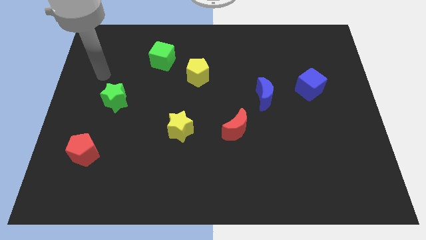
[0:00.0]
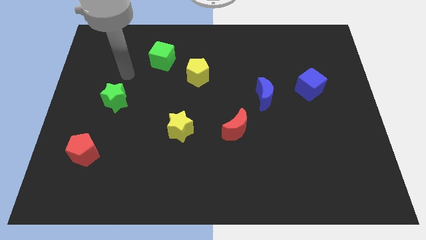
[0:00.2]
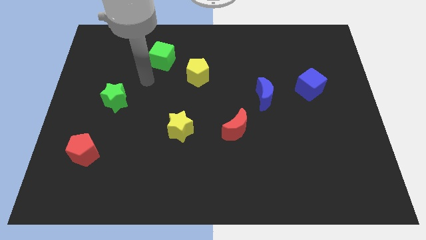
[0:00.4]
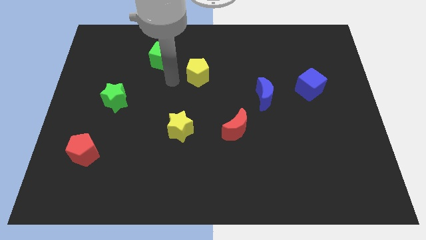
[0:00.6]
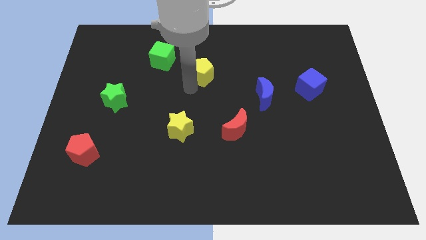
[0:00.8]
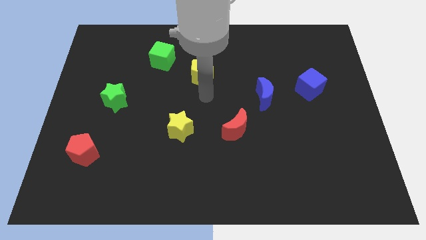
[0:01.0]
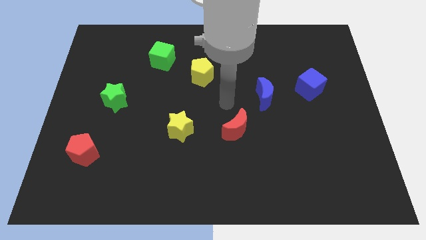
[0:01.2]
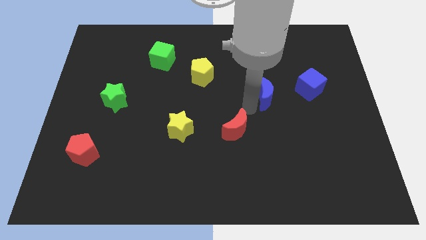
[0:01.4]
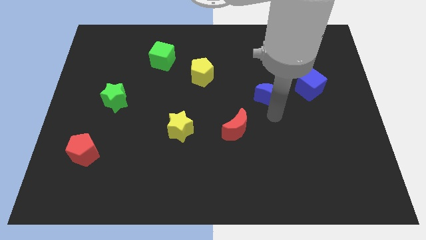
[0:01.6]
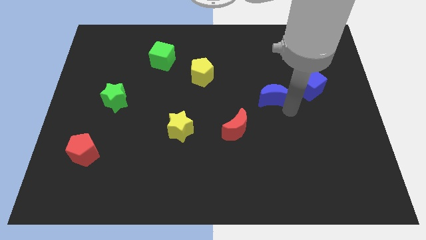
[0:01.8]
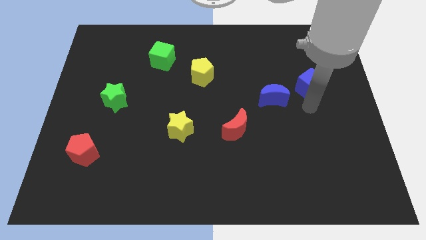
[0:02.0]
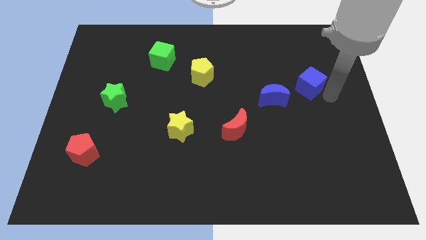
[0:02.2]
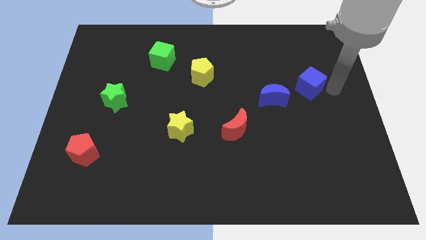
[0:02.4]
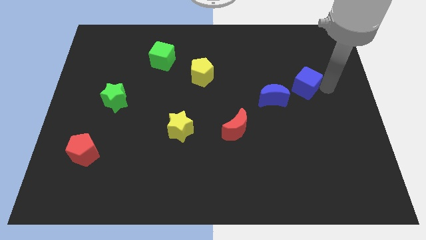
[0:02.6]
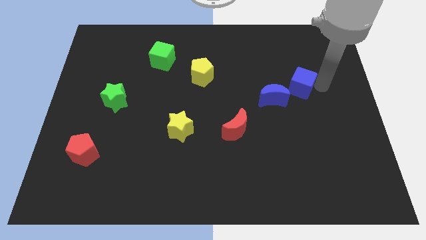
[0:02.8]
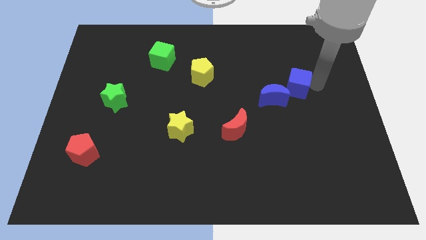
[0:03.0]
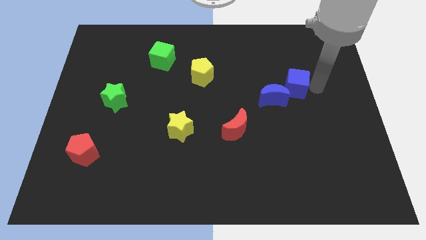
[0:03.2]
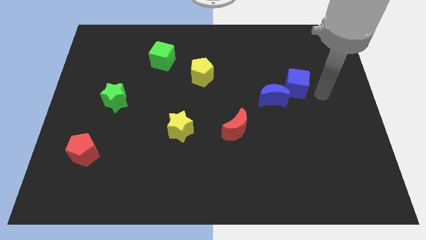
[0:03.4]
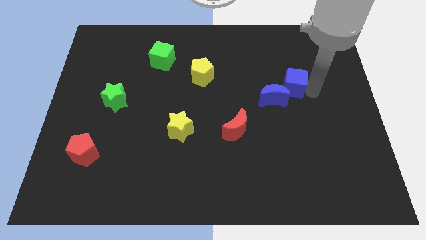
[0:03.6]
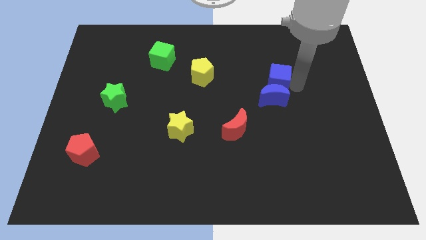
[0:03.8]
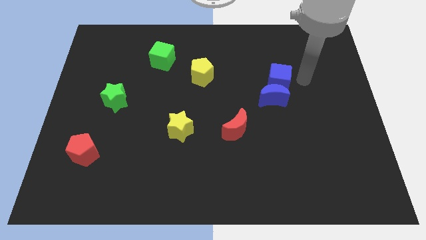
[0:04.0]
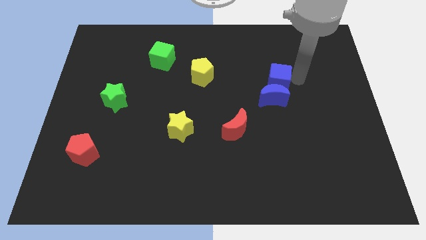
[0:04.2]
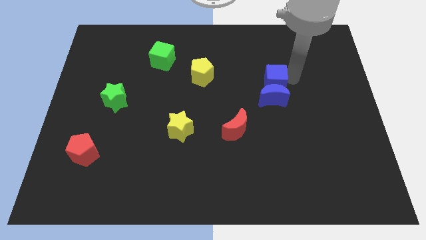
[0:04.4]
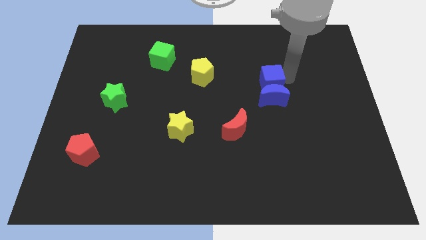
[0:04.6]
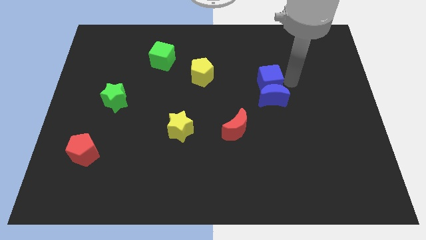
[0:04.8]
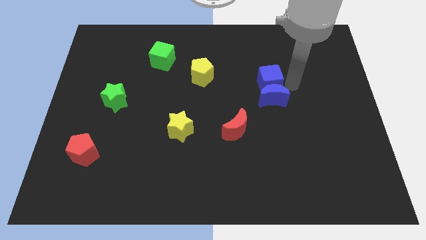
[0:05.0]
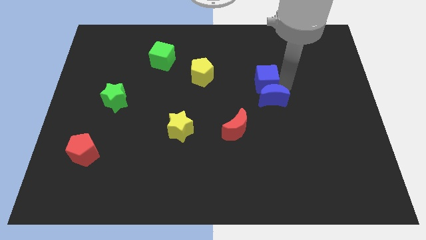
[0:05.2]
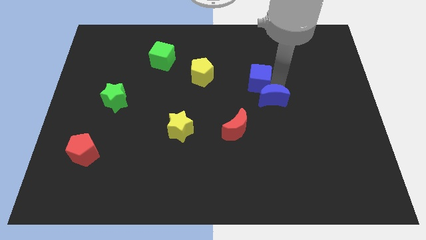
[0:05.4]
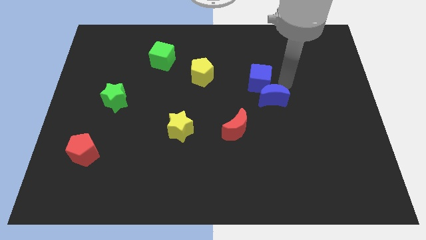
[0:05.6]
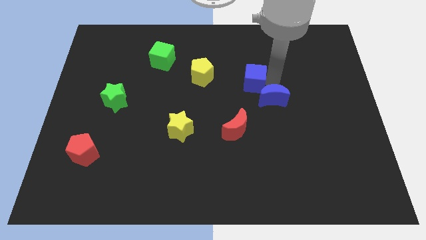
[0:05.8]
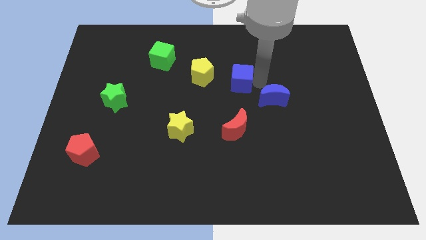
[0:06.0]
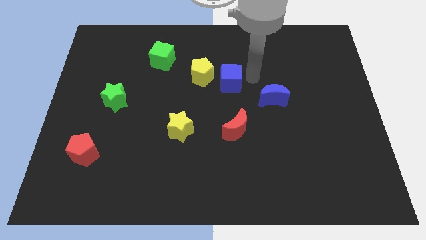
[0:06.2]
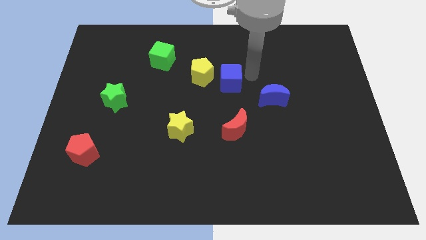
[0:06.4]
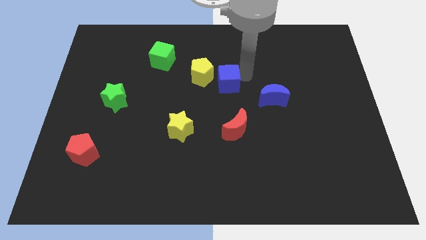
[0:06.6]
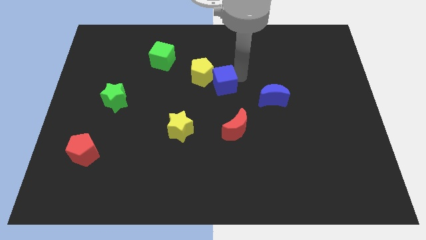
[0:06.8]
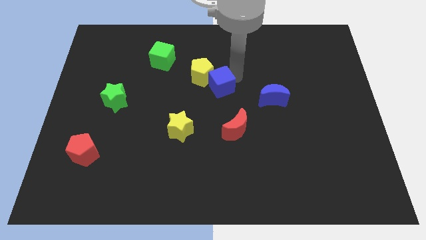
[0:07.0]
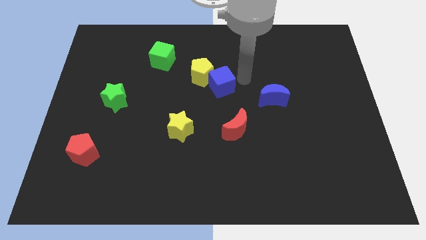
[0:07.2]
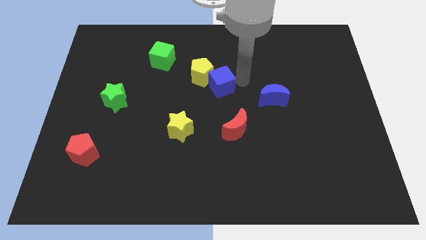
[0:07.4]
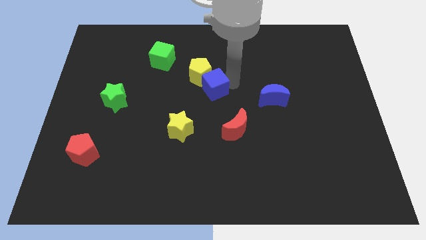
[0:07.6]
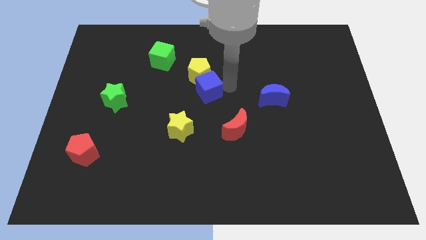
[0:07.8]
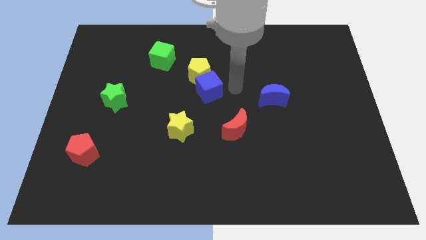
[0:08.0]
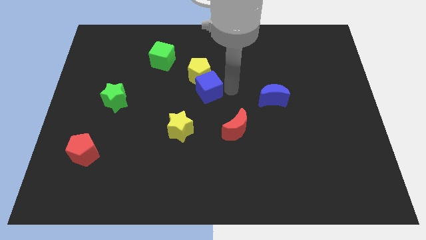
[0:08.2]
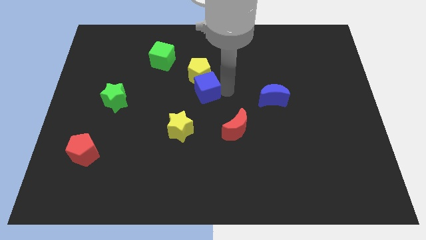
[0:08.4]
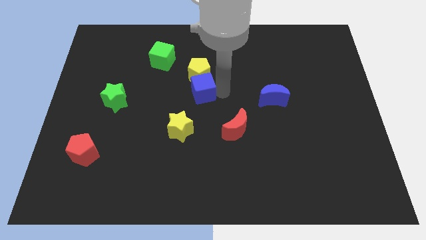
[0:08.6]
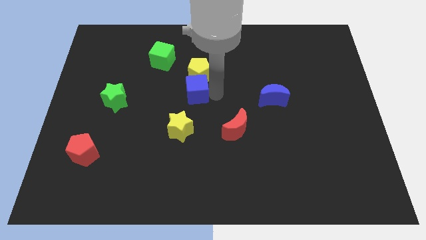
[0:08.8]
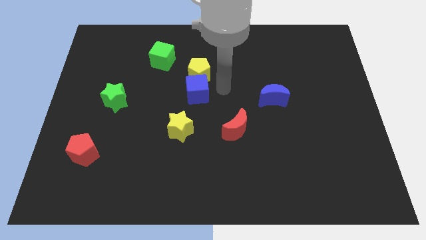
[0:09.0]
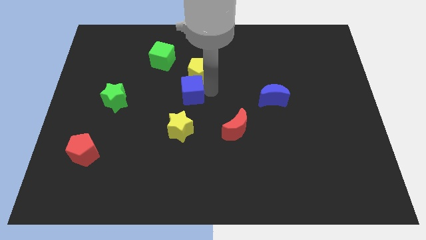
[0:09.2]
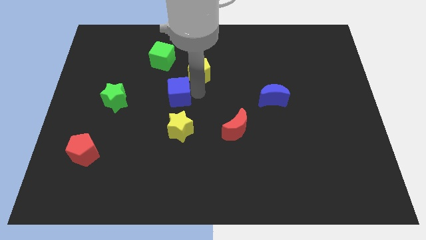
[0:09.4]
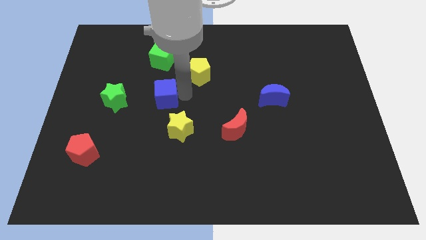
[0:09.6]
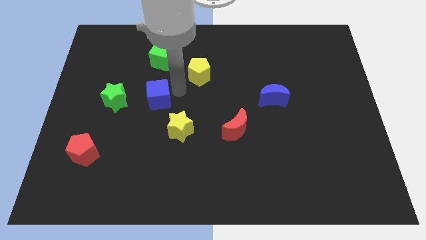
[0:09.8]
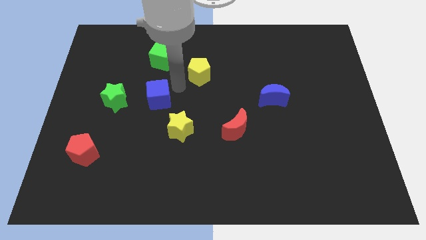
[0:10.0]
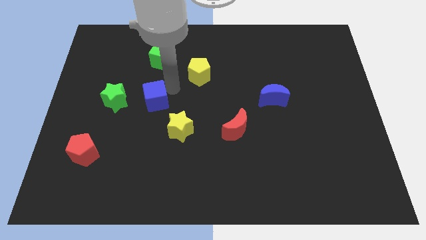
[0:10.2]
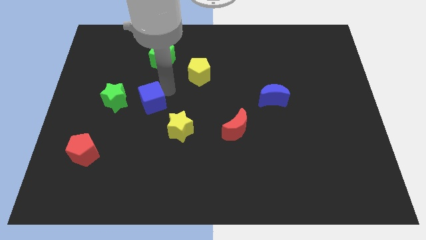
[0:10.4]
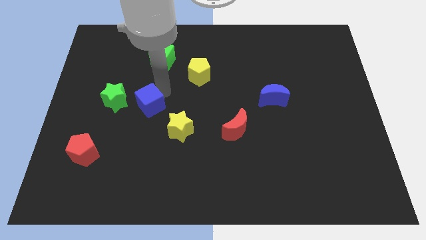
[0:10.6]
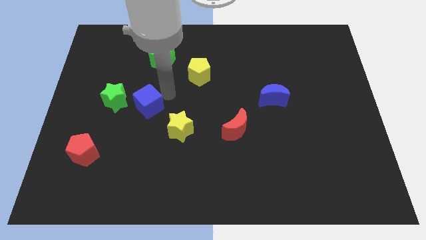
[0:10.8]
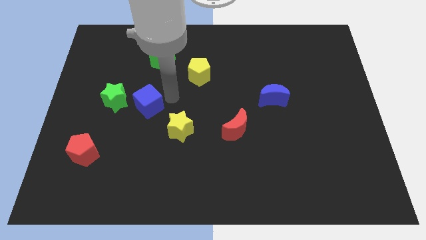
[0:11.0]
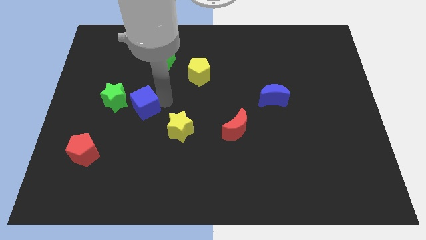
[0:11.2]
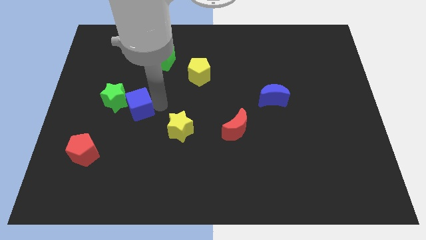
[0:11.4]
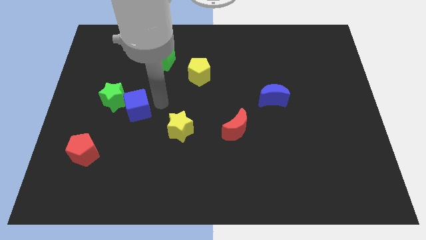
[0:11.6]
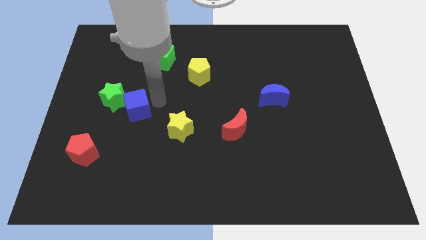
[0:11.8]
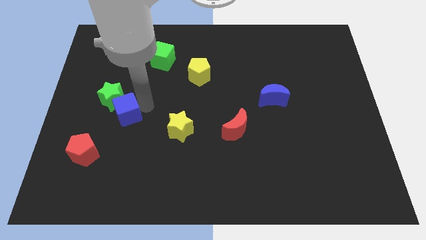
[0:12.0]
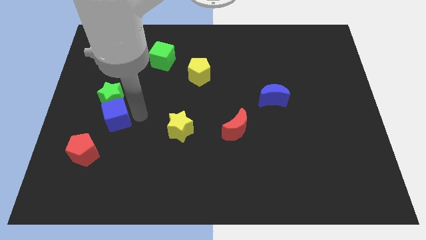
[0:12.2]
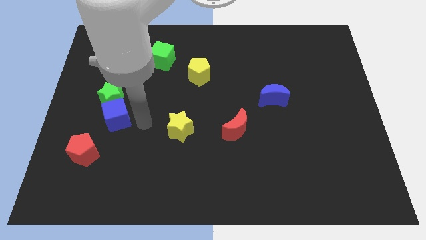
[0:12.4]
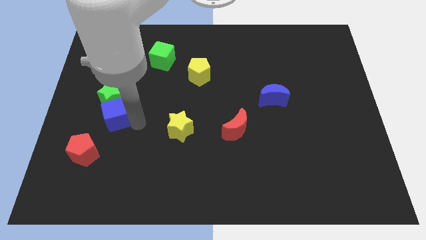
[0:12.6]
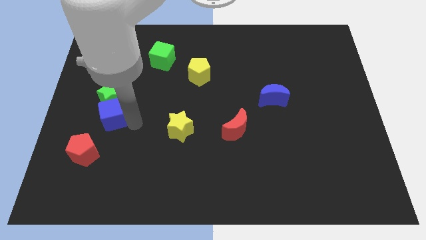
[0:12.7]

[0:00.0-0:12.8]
move the blue cube to the top side of the red pentagon

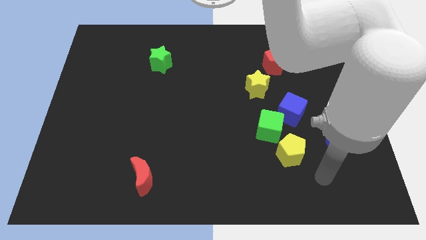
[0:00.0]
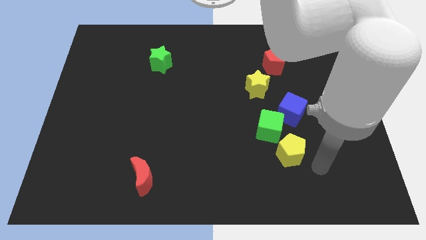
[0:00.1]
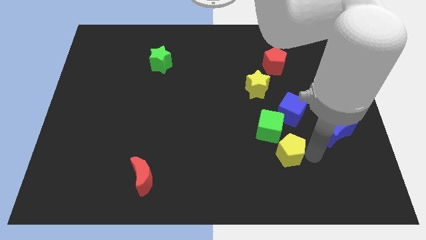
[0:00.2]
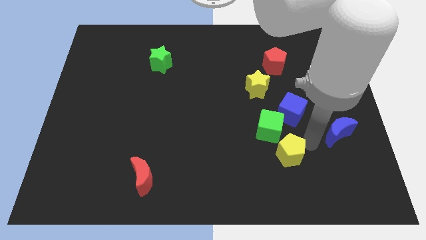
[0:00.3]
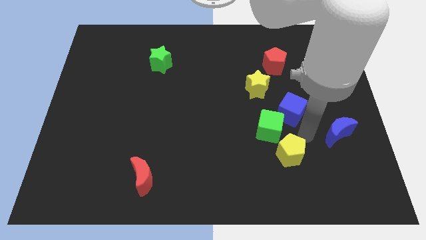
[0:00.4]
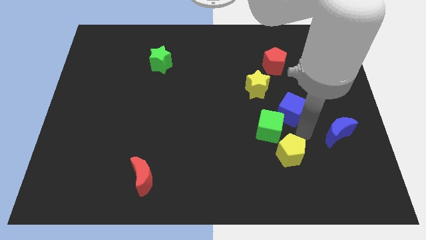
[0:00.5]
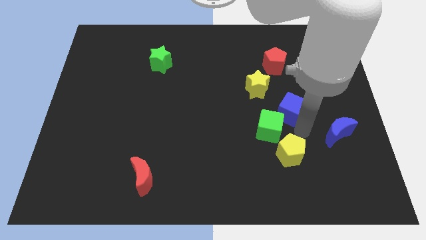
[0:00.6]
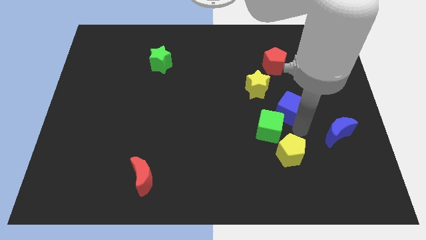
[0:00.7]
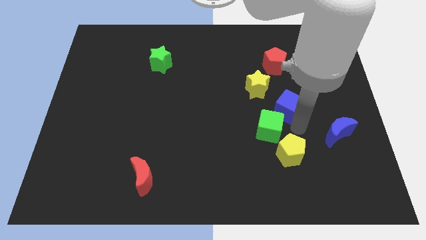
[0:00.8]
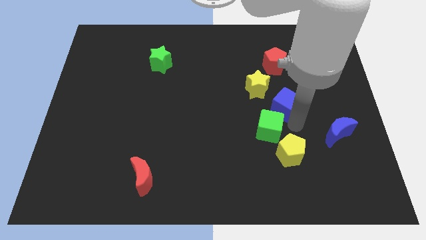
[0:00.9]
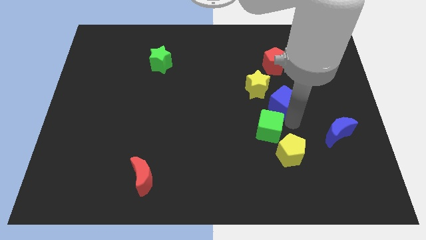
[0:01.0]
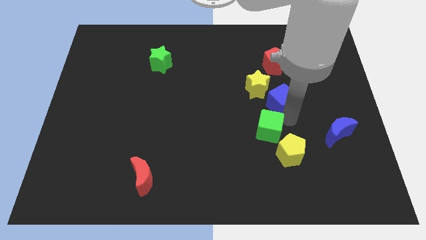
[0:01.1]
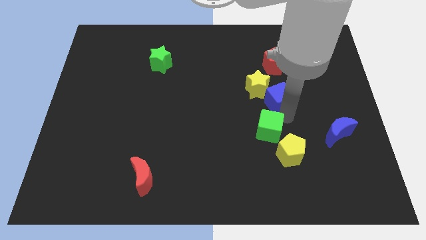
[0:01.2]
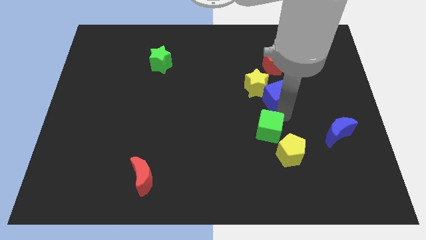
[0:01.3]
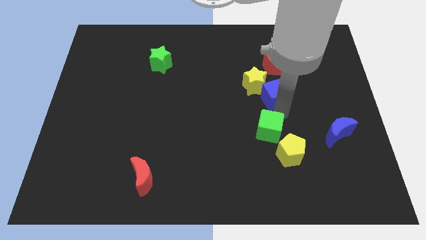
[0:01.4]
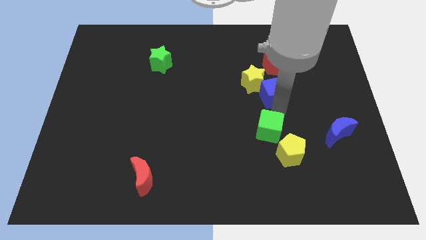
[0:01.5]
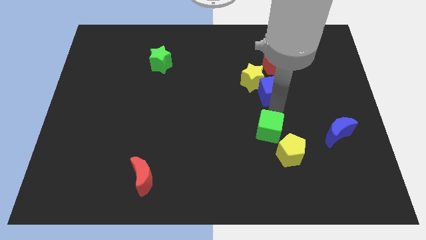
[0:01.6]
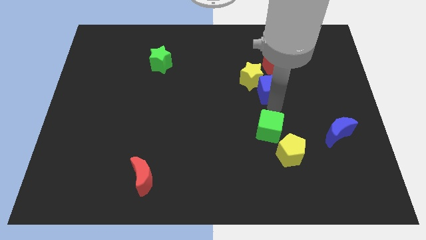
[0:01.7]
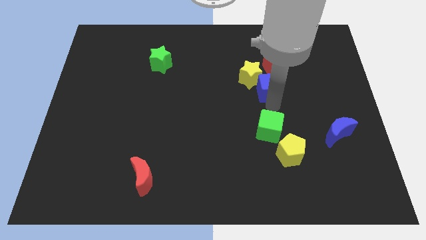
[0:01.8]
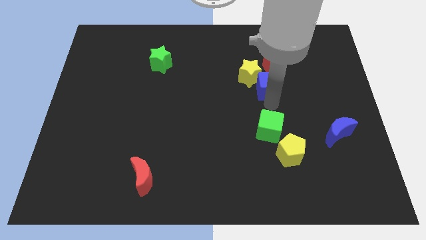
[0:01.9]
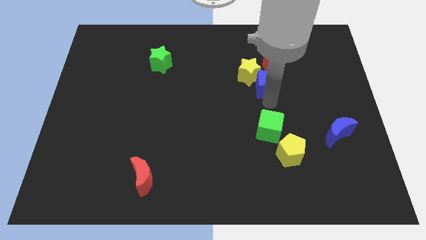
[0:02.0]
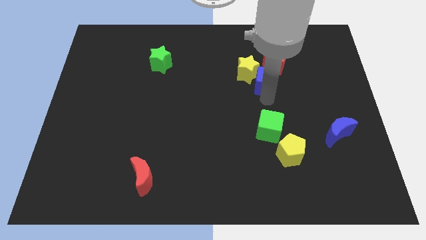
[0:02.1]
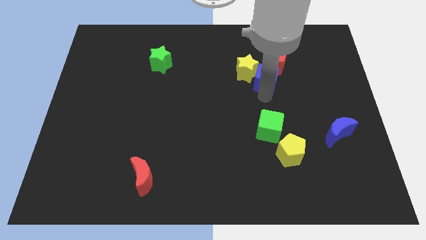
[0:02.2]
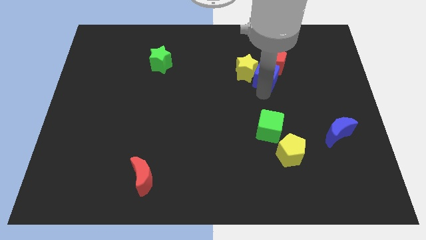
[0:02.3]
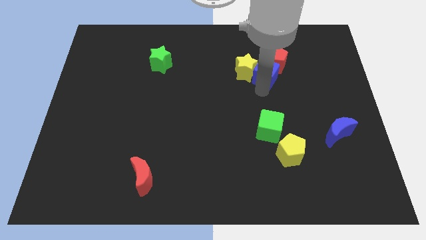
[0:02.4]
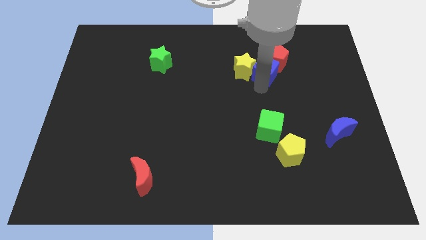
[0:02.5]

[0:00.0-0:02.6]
put the blue cube to the left side of the red pentagon
